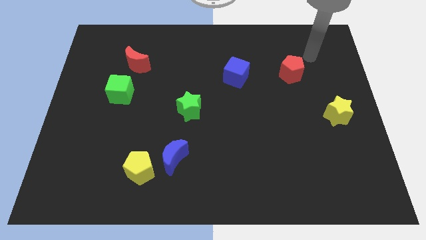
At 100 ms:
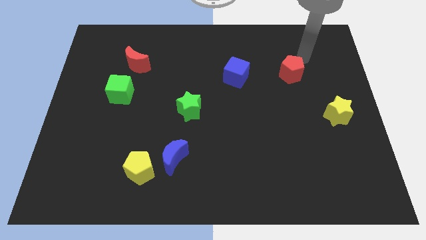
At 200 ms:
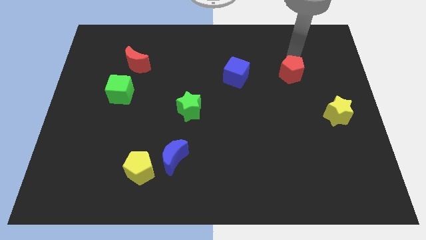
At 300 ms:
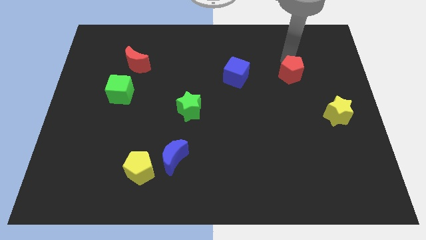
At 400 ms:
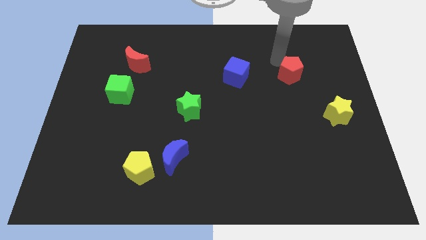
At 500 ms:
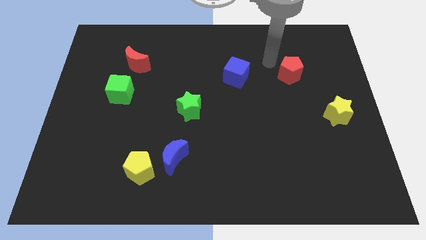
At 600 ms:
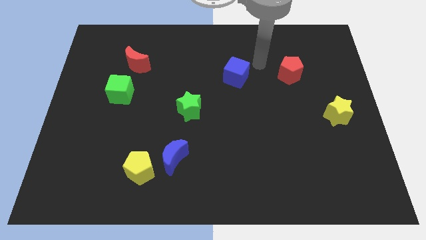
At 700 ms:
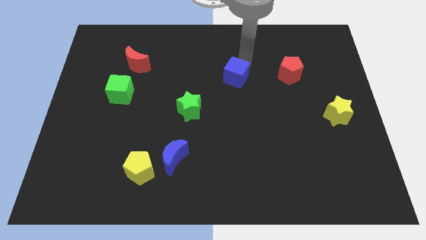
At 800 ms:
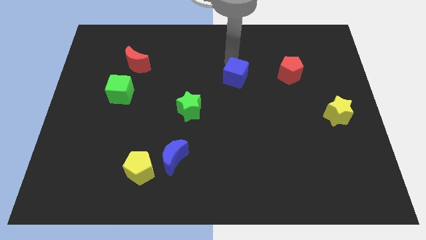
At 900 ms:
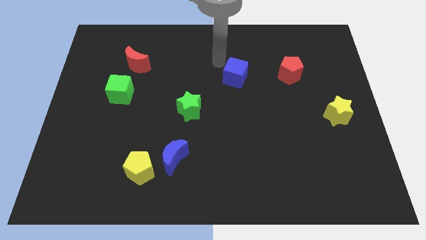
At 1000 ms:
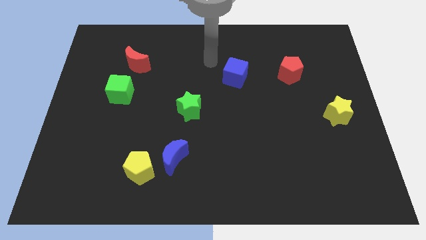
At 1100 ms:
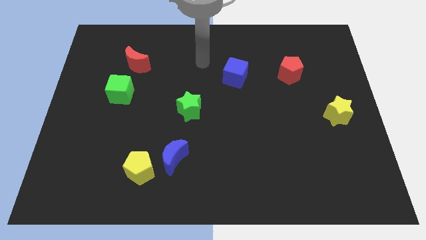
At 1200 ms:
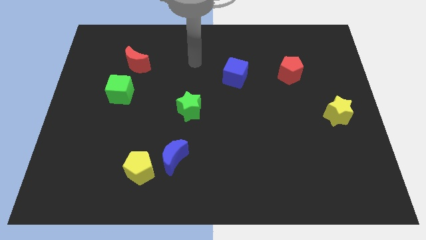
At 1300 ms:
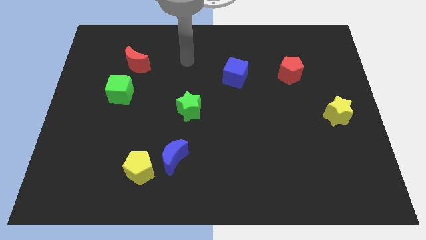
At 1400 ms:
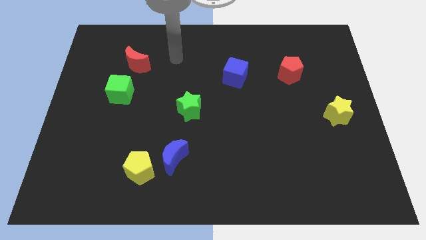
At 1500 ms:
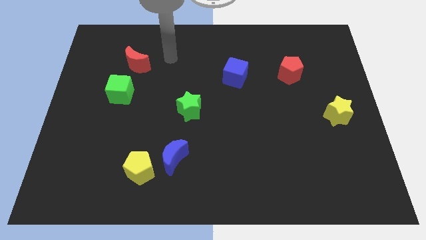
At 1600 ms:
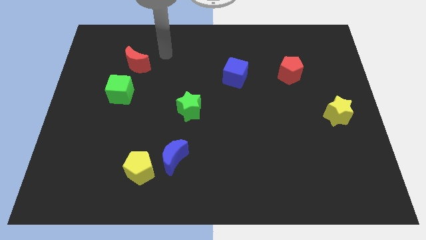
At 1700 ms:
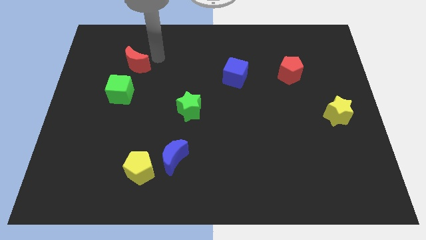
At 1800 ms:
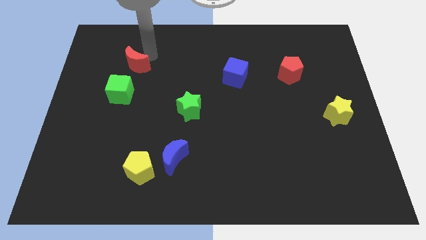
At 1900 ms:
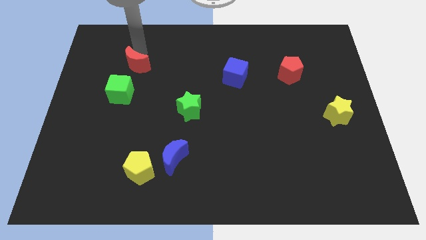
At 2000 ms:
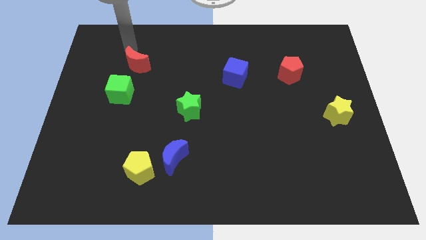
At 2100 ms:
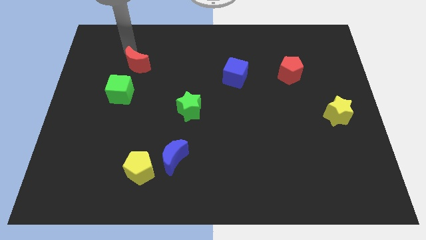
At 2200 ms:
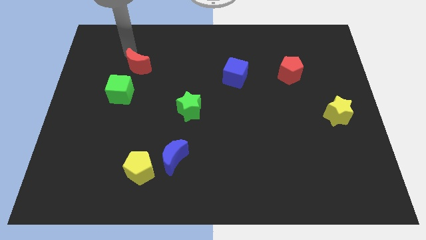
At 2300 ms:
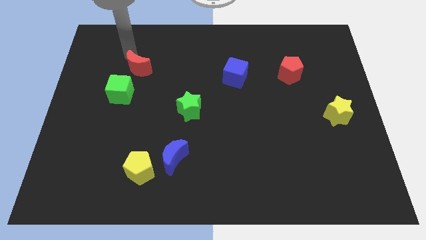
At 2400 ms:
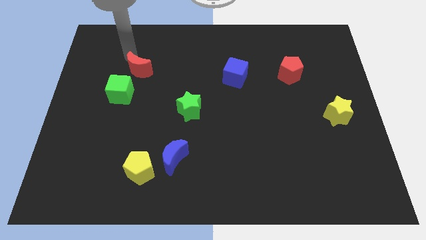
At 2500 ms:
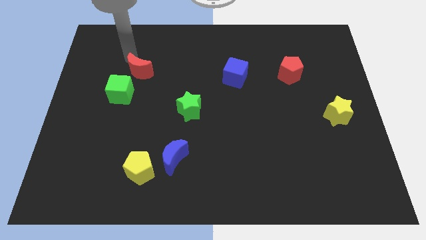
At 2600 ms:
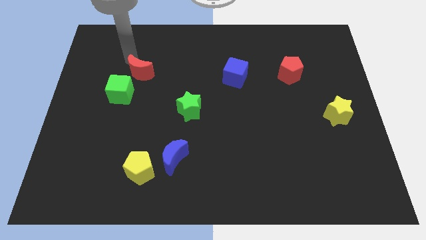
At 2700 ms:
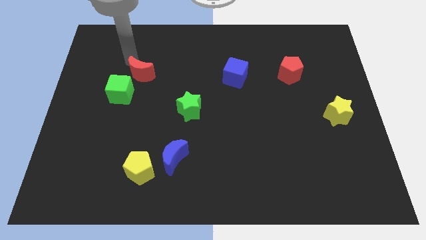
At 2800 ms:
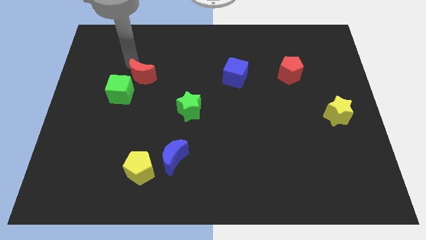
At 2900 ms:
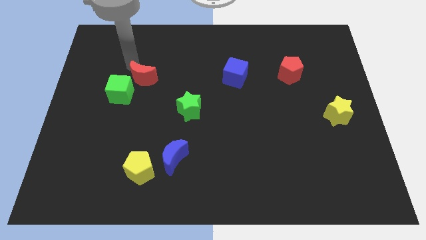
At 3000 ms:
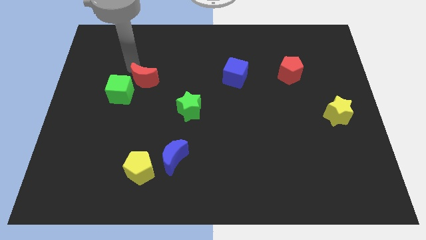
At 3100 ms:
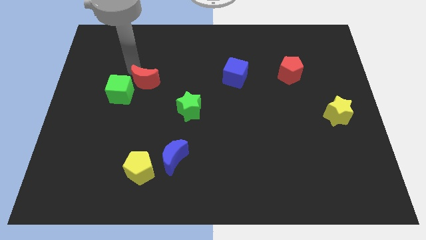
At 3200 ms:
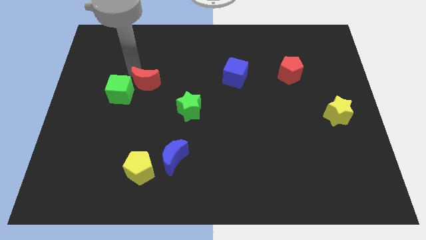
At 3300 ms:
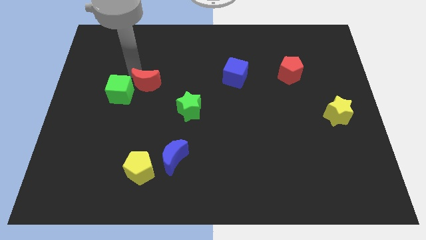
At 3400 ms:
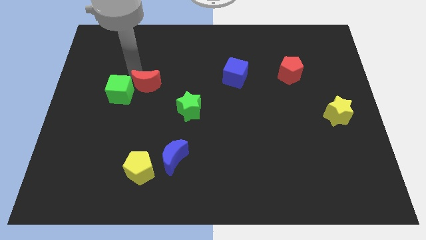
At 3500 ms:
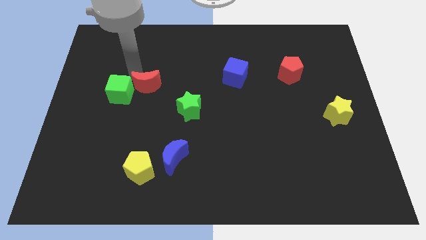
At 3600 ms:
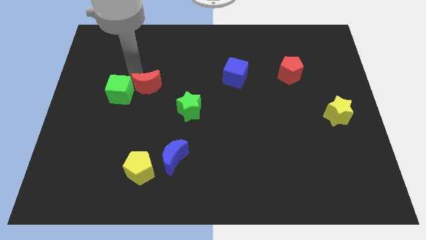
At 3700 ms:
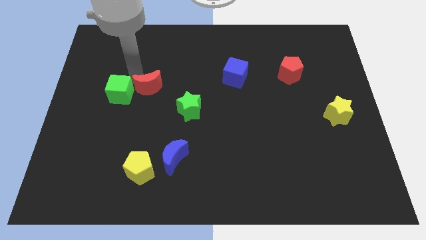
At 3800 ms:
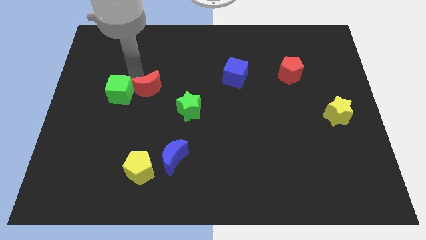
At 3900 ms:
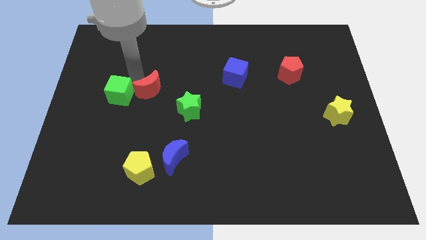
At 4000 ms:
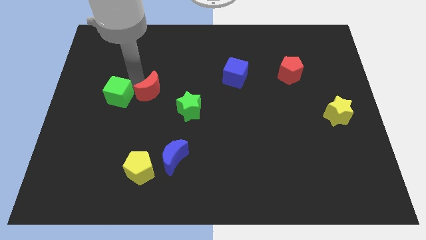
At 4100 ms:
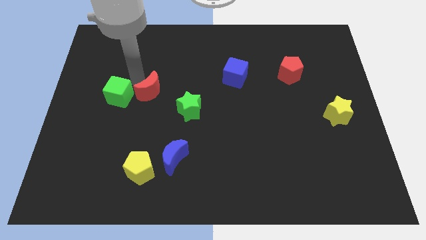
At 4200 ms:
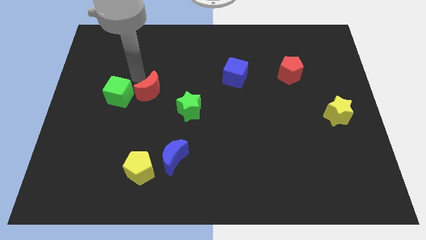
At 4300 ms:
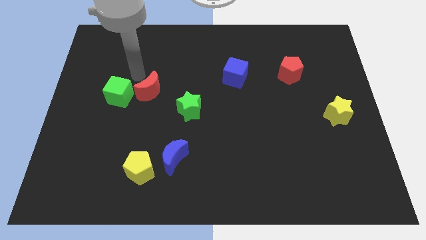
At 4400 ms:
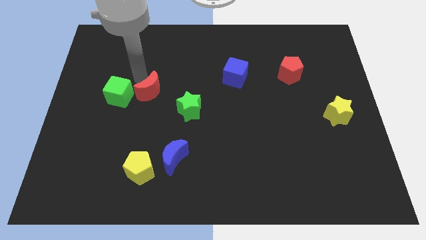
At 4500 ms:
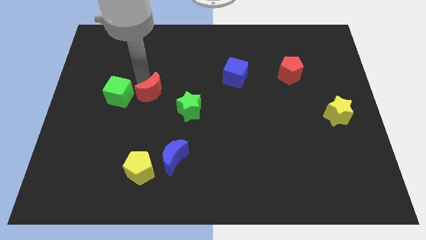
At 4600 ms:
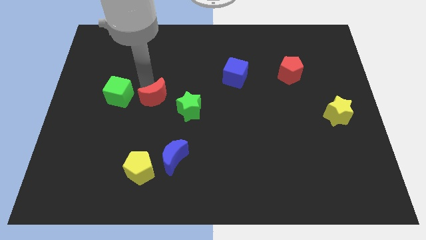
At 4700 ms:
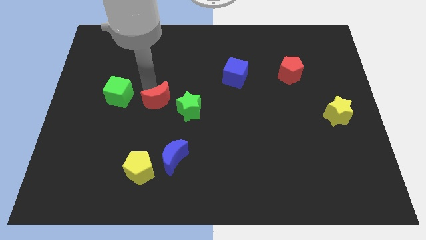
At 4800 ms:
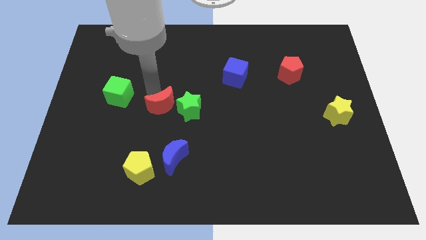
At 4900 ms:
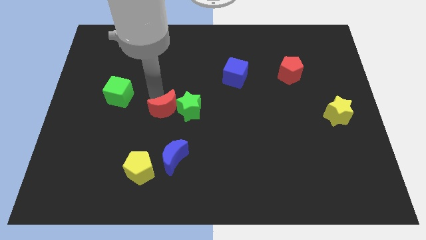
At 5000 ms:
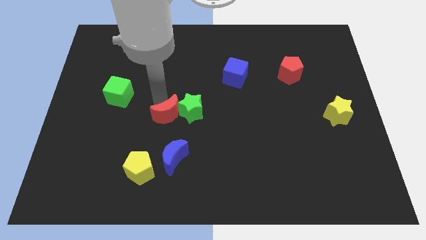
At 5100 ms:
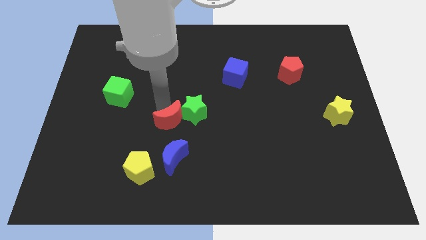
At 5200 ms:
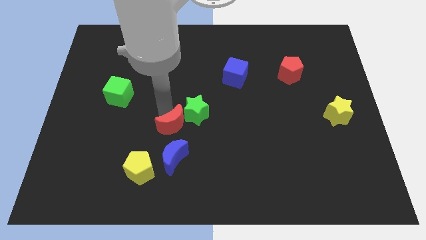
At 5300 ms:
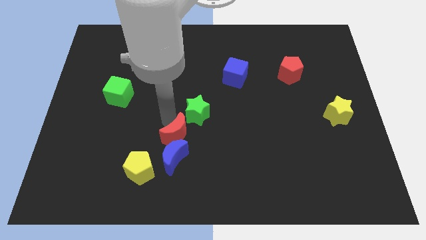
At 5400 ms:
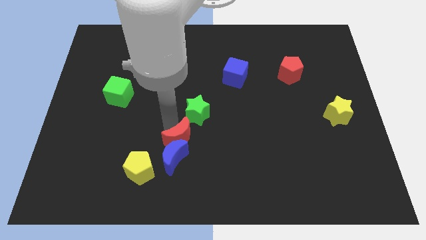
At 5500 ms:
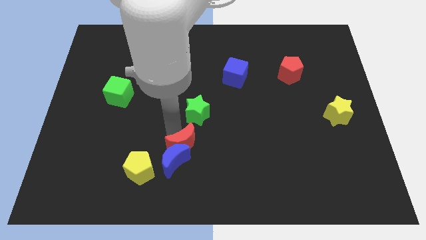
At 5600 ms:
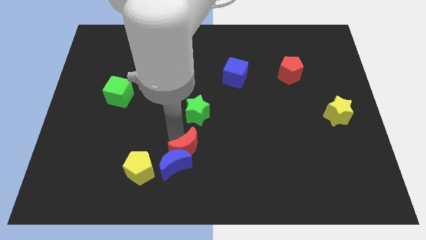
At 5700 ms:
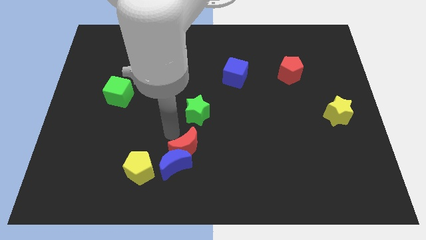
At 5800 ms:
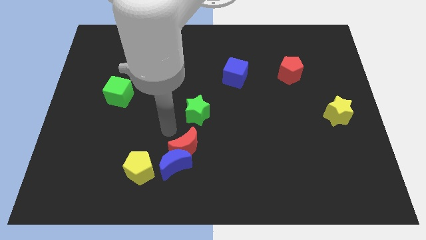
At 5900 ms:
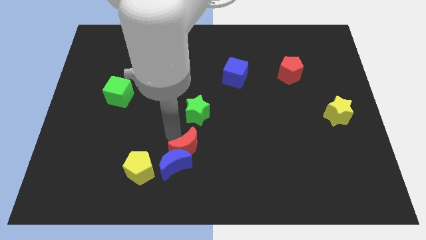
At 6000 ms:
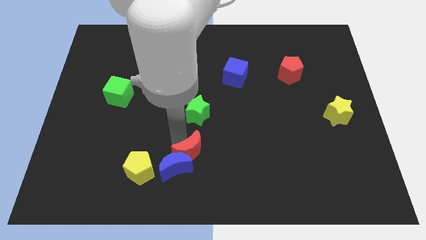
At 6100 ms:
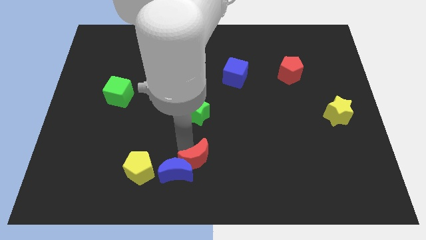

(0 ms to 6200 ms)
move the red moon to the bottom

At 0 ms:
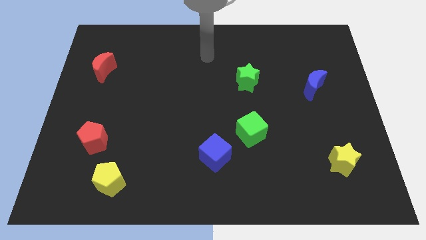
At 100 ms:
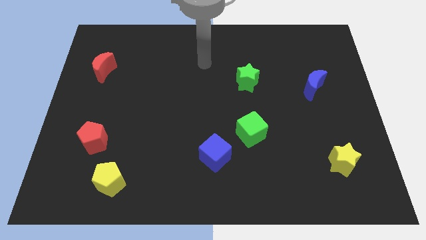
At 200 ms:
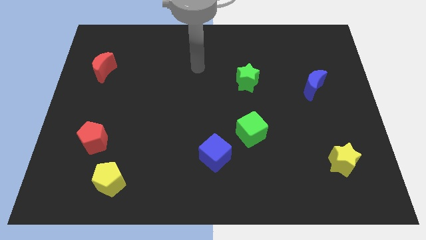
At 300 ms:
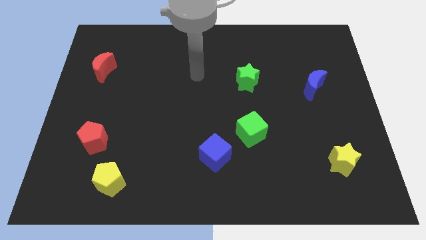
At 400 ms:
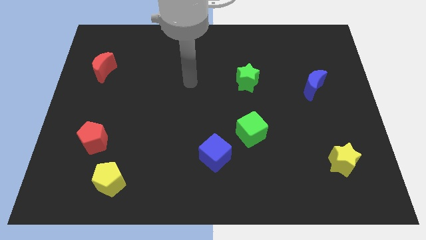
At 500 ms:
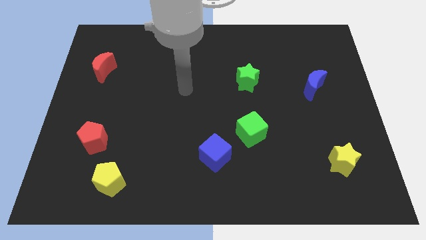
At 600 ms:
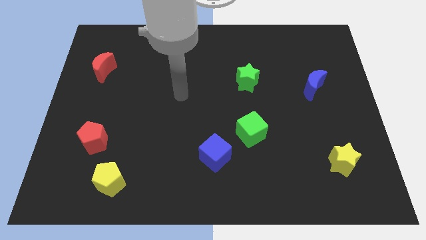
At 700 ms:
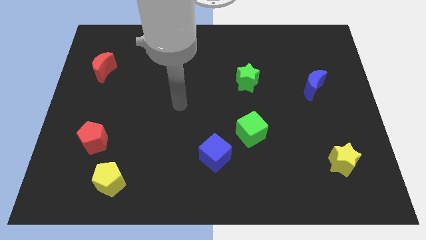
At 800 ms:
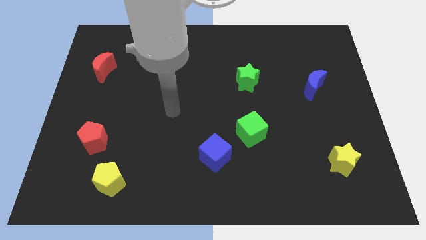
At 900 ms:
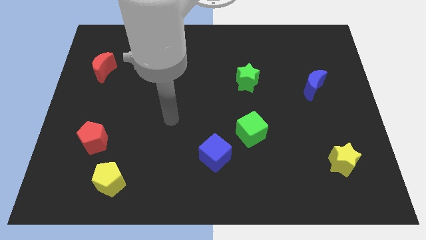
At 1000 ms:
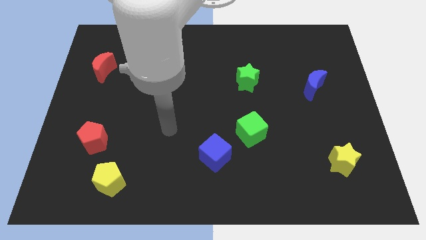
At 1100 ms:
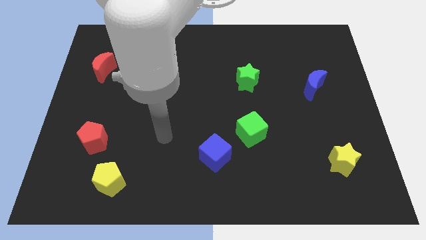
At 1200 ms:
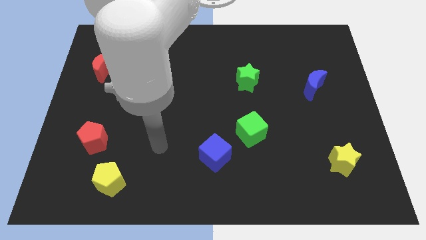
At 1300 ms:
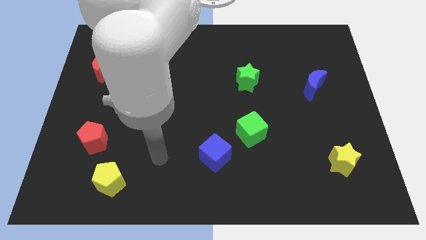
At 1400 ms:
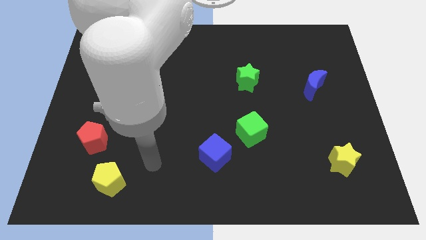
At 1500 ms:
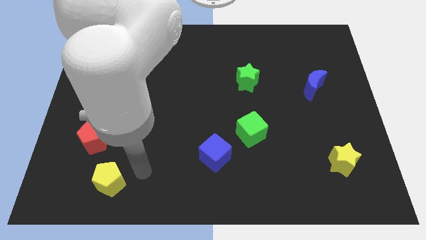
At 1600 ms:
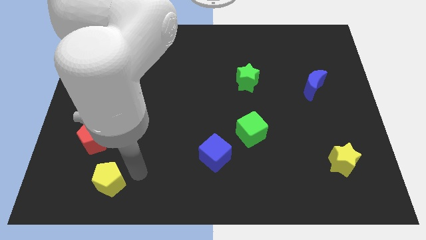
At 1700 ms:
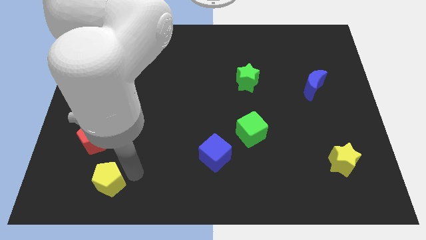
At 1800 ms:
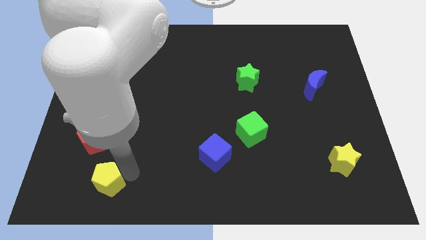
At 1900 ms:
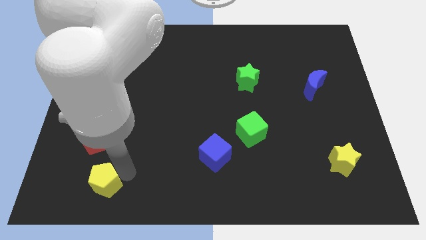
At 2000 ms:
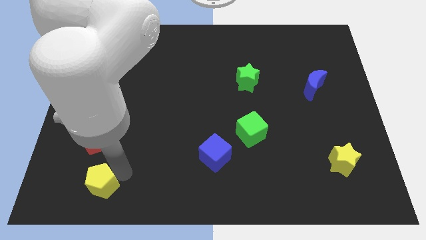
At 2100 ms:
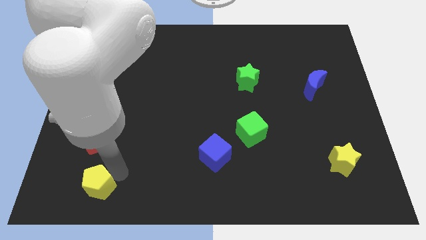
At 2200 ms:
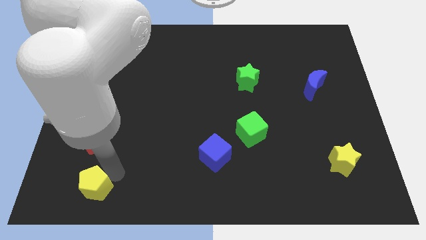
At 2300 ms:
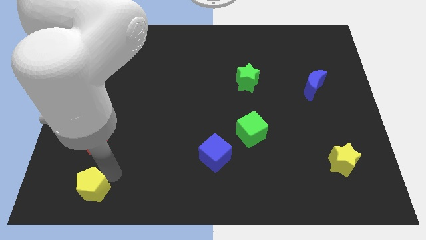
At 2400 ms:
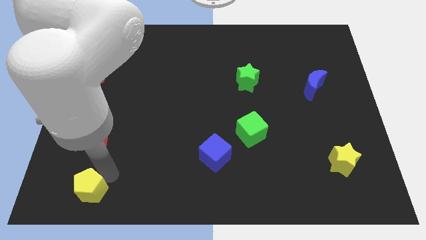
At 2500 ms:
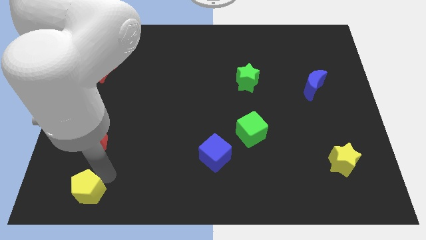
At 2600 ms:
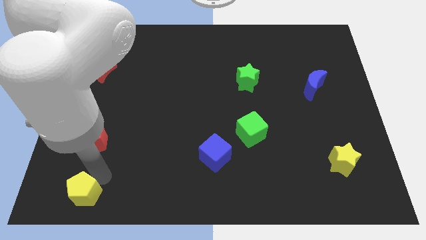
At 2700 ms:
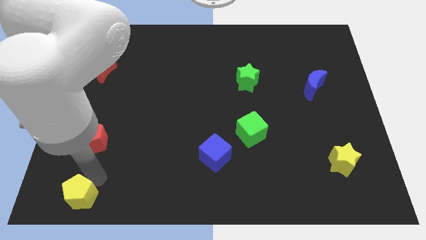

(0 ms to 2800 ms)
slide the yellow pentagon to the bottom left of the board
